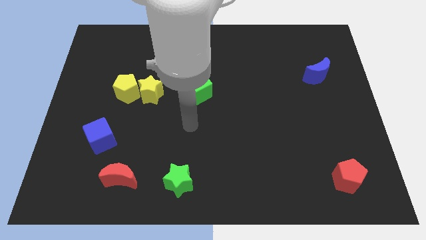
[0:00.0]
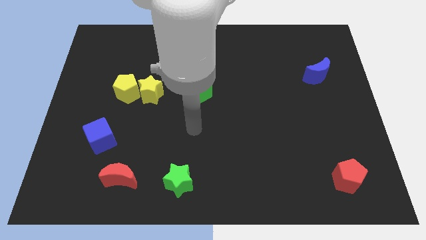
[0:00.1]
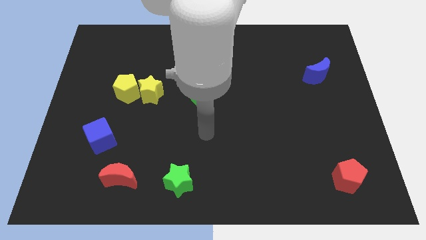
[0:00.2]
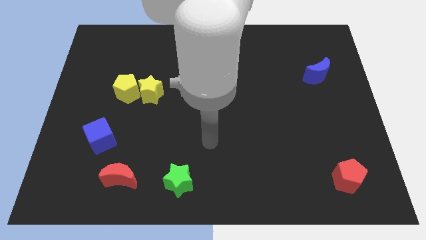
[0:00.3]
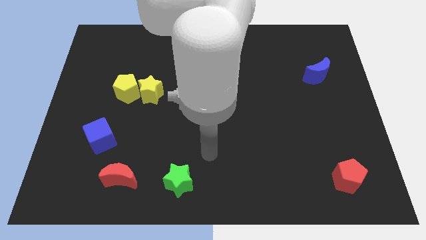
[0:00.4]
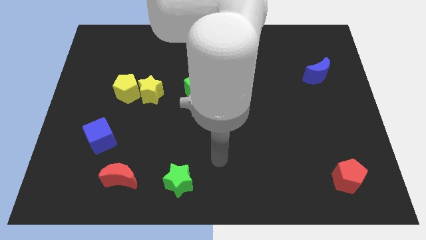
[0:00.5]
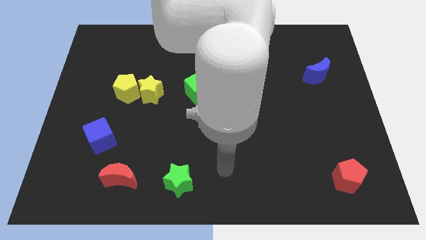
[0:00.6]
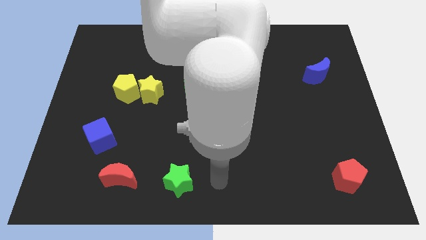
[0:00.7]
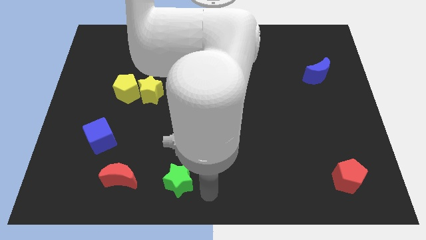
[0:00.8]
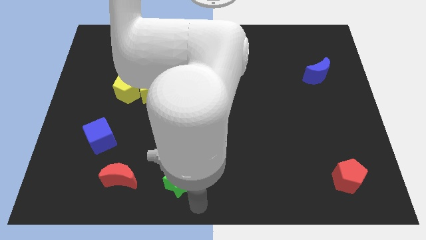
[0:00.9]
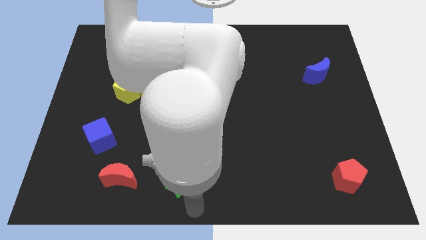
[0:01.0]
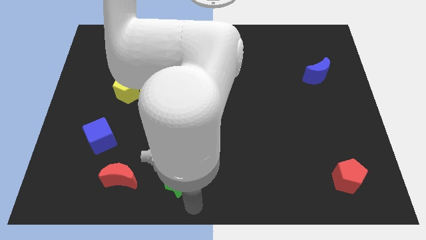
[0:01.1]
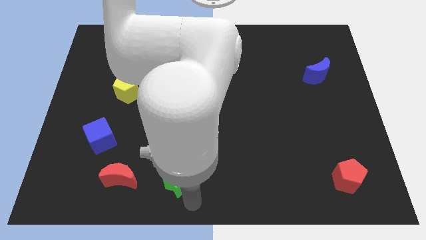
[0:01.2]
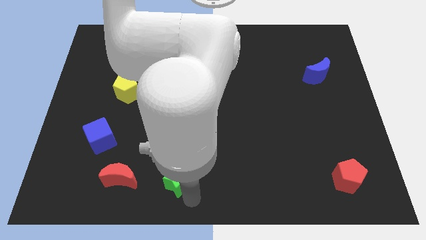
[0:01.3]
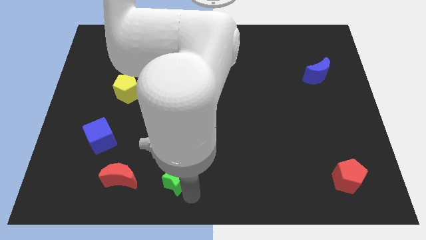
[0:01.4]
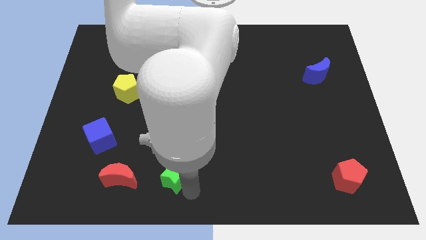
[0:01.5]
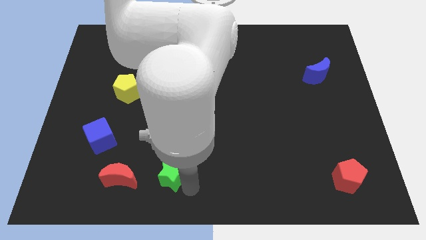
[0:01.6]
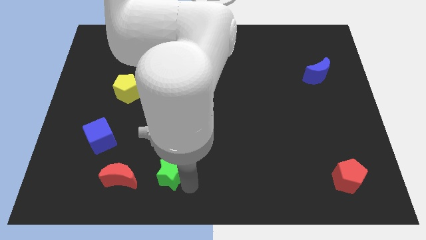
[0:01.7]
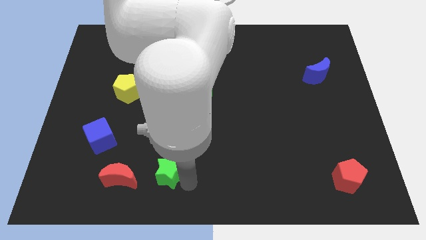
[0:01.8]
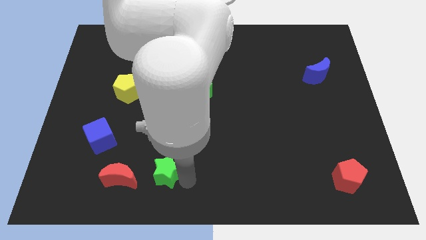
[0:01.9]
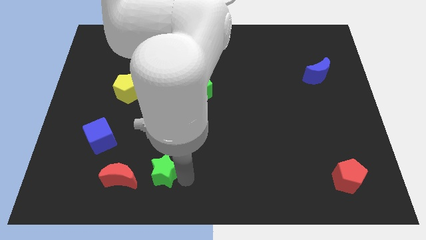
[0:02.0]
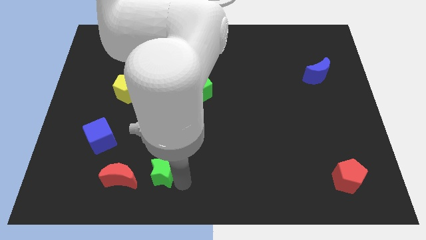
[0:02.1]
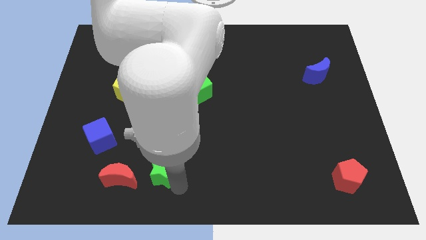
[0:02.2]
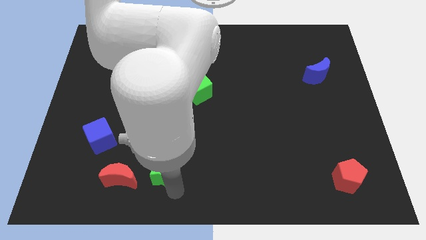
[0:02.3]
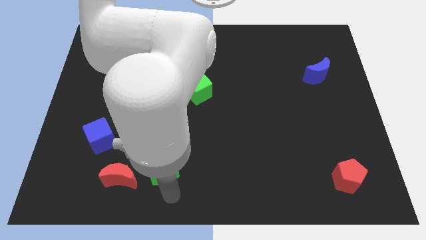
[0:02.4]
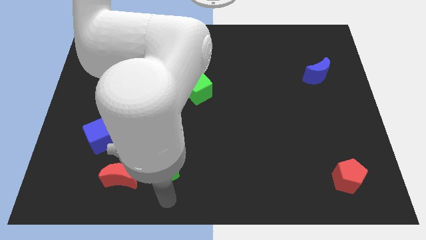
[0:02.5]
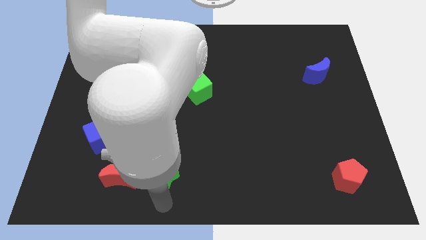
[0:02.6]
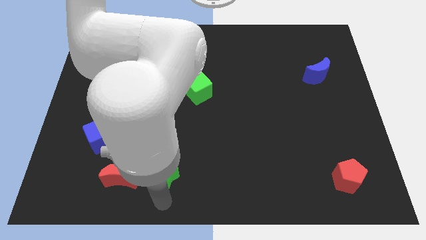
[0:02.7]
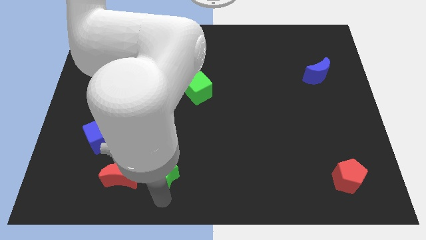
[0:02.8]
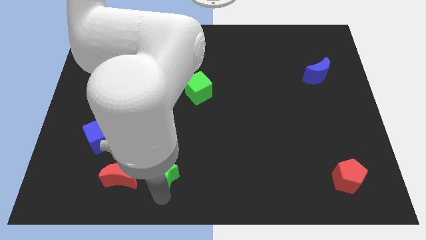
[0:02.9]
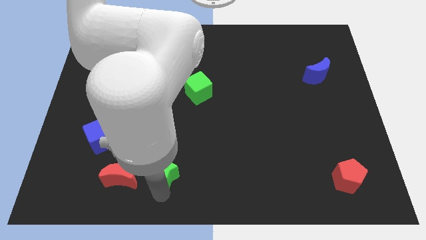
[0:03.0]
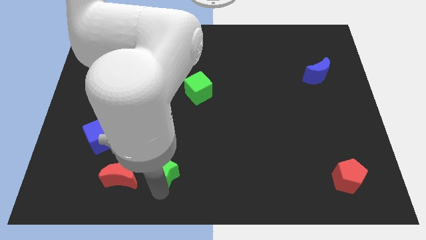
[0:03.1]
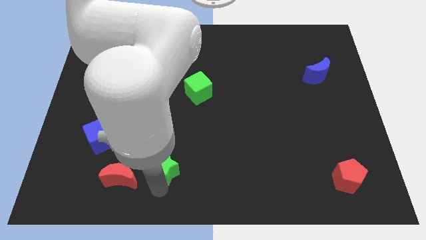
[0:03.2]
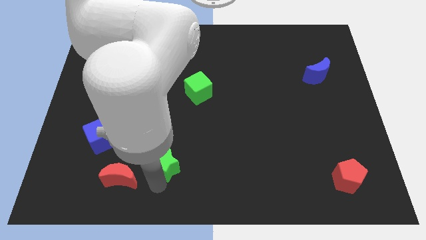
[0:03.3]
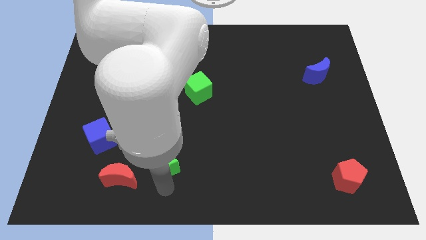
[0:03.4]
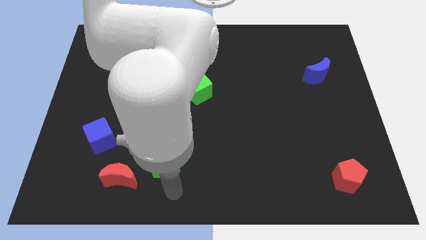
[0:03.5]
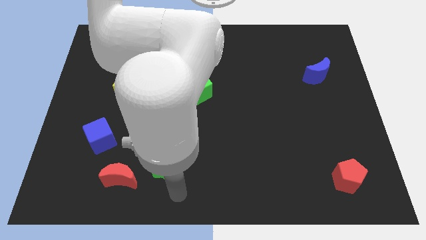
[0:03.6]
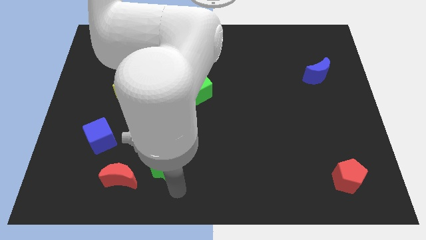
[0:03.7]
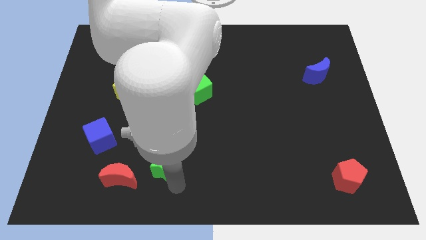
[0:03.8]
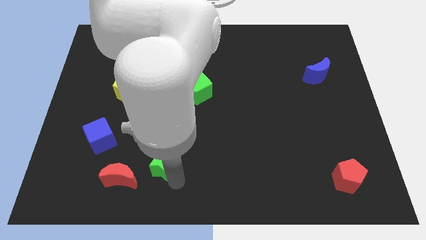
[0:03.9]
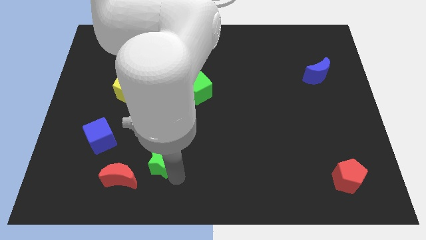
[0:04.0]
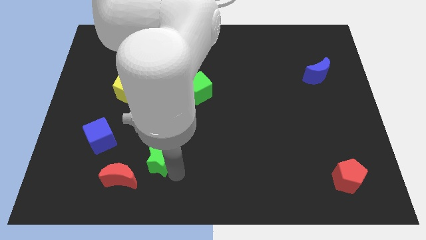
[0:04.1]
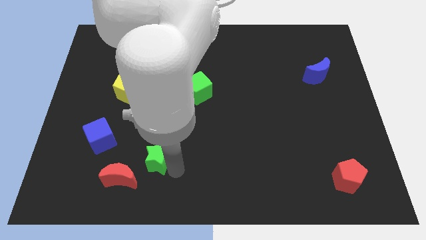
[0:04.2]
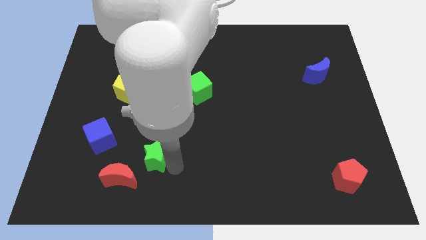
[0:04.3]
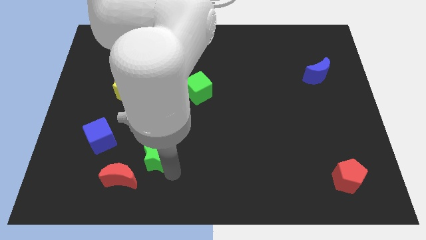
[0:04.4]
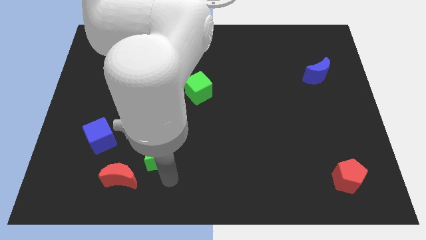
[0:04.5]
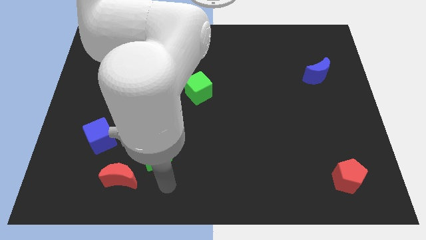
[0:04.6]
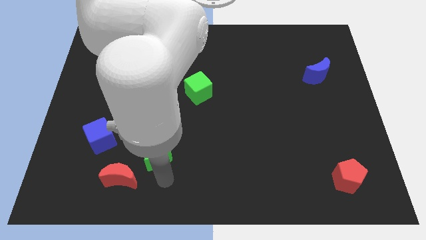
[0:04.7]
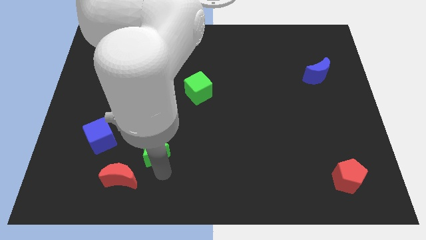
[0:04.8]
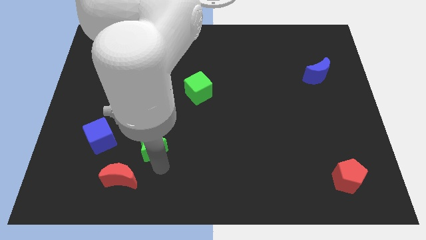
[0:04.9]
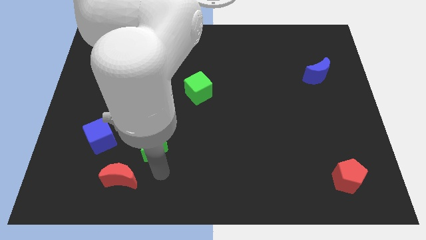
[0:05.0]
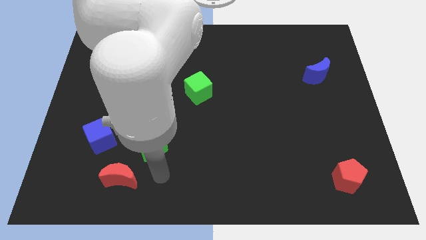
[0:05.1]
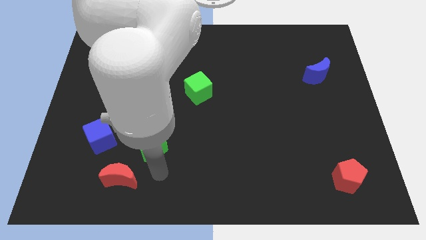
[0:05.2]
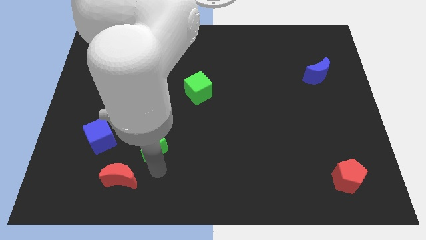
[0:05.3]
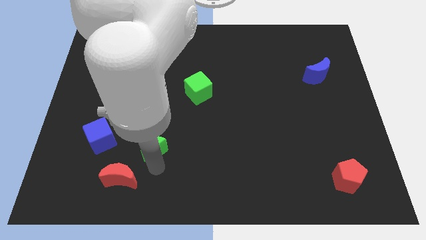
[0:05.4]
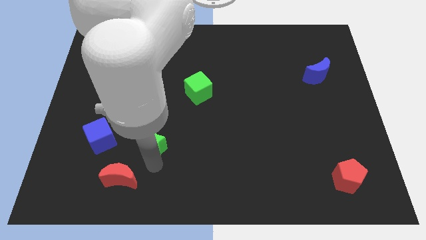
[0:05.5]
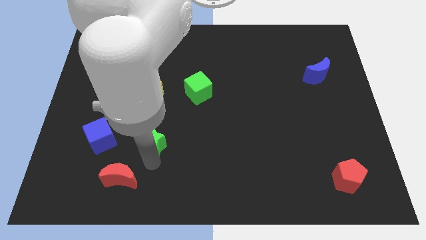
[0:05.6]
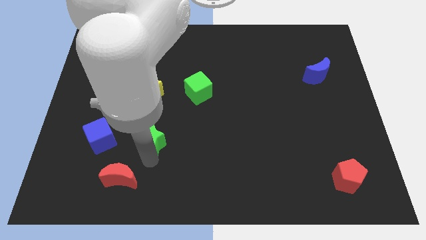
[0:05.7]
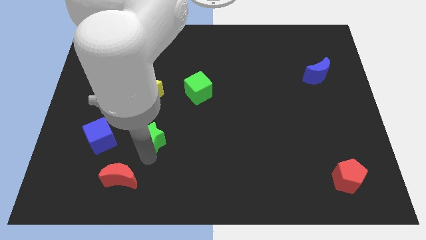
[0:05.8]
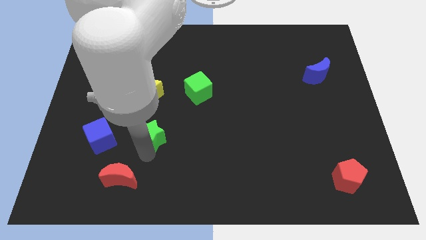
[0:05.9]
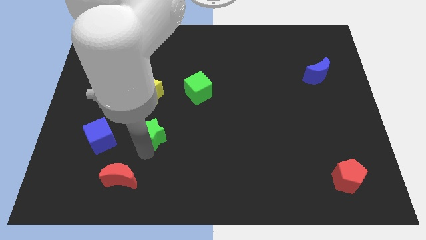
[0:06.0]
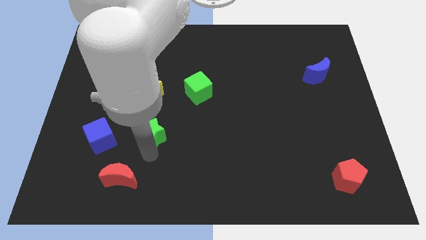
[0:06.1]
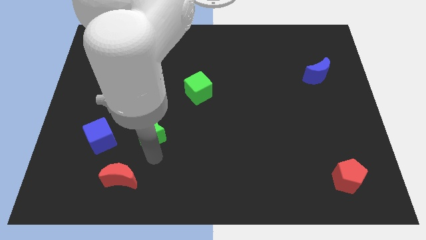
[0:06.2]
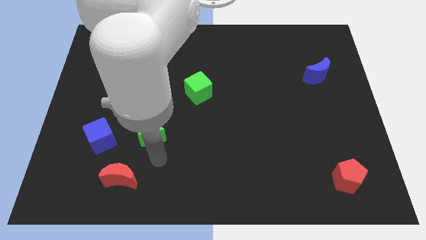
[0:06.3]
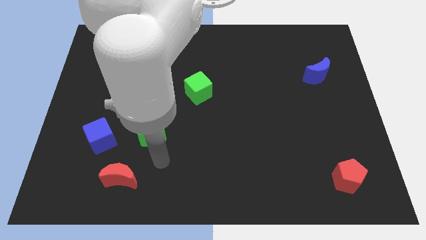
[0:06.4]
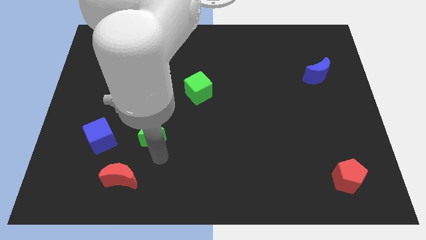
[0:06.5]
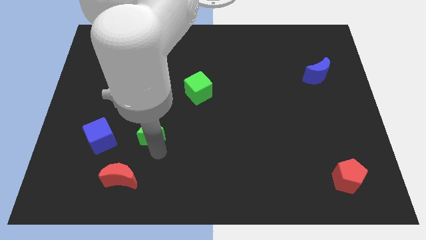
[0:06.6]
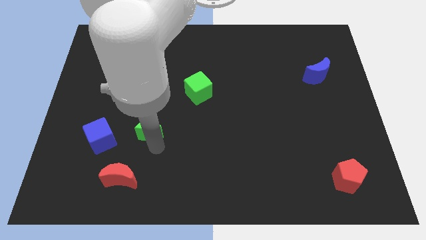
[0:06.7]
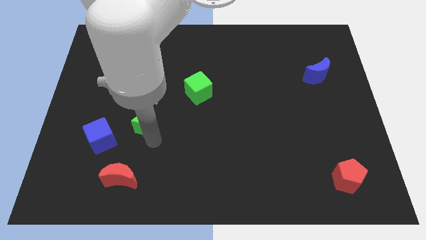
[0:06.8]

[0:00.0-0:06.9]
put the green star to the bottom right side of the yellow pentagon
